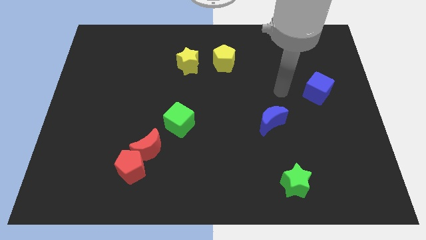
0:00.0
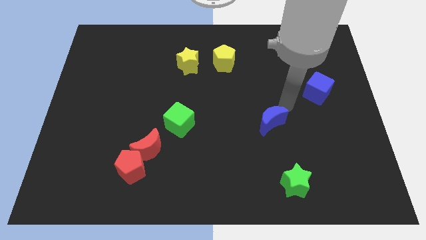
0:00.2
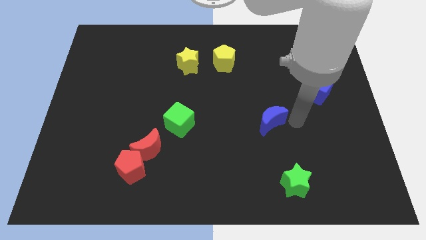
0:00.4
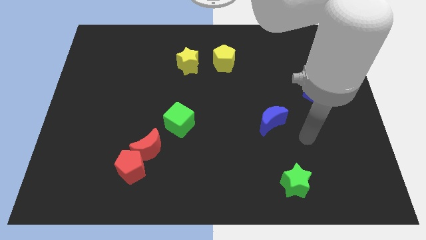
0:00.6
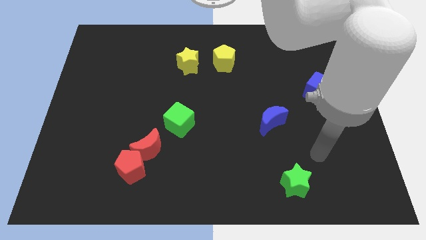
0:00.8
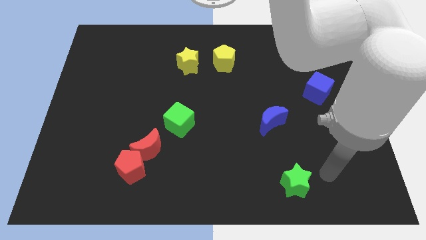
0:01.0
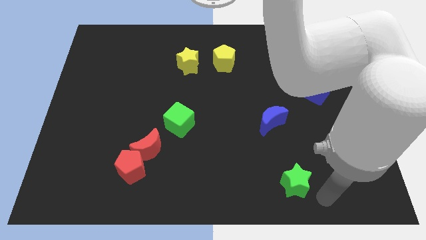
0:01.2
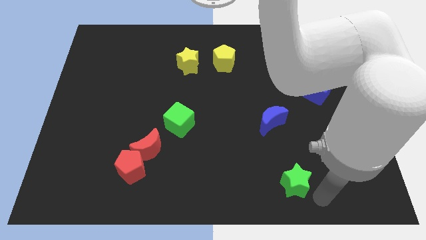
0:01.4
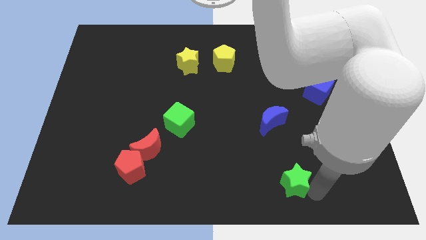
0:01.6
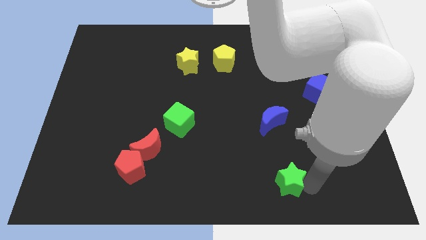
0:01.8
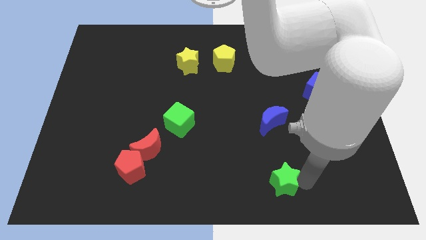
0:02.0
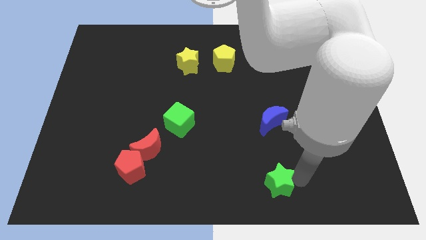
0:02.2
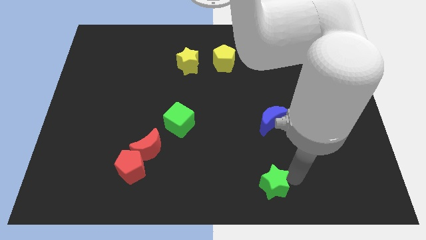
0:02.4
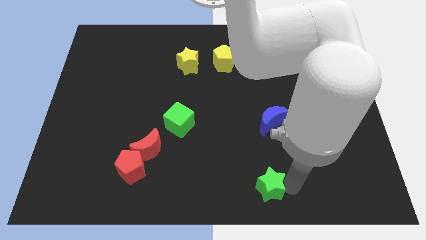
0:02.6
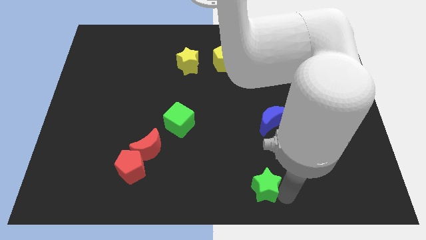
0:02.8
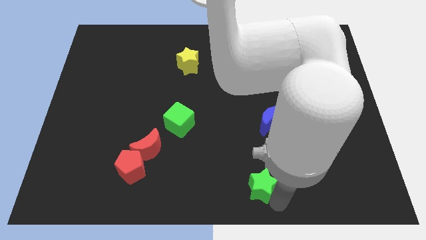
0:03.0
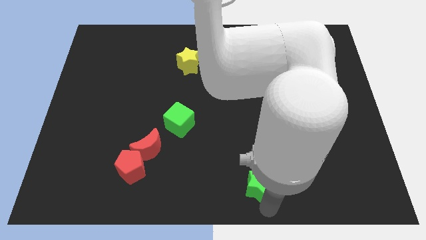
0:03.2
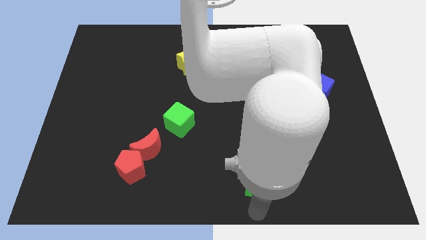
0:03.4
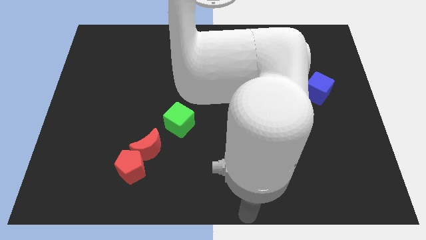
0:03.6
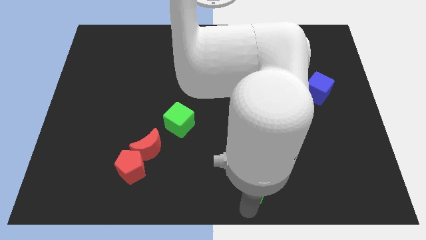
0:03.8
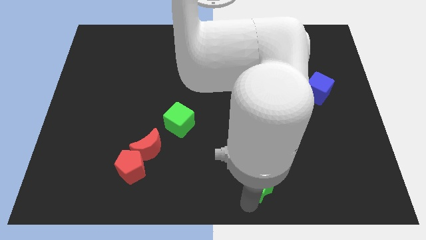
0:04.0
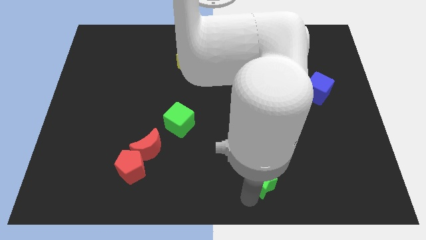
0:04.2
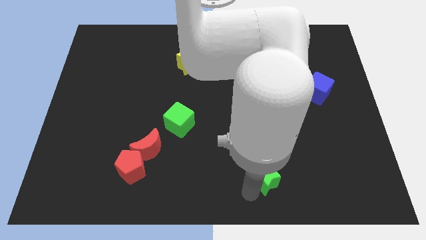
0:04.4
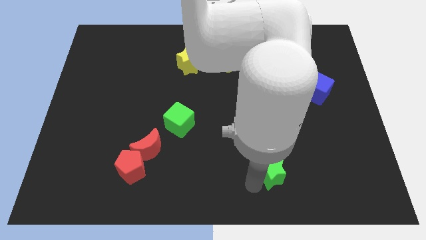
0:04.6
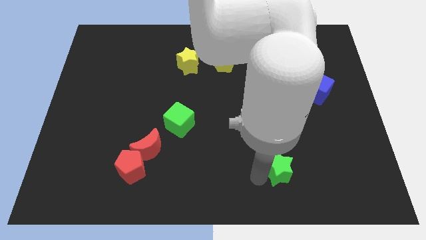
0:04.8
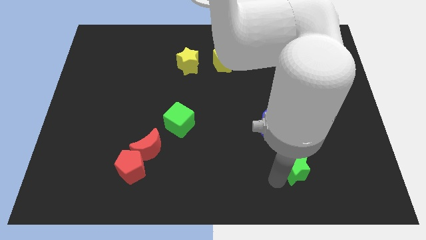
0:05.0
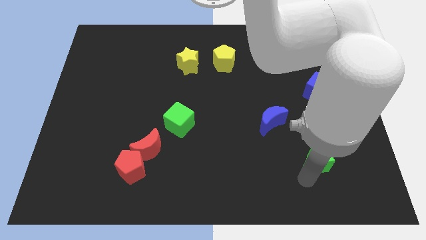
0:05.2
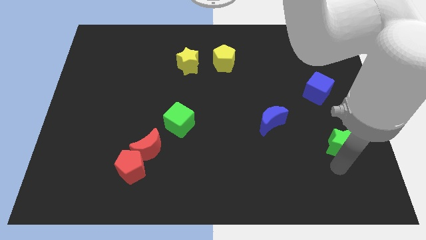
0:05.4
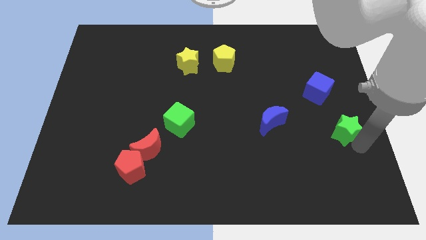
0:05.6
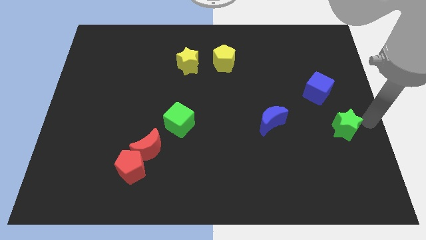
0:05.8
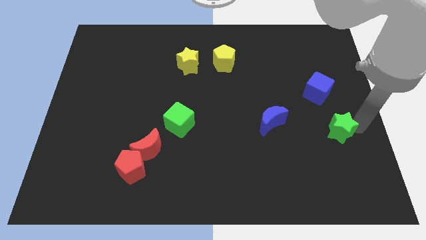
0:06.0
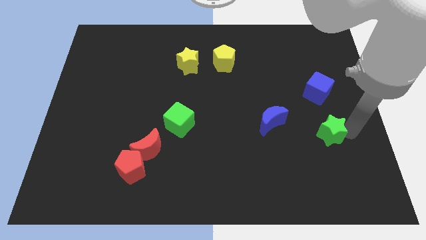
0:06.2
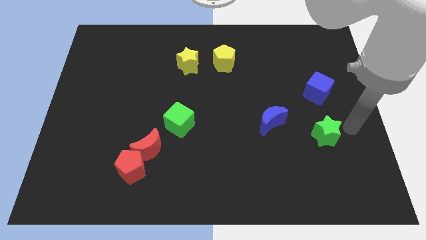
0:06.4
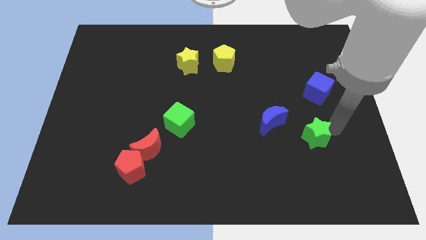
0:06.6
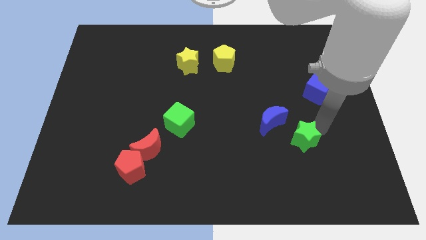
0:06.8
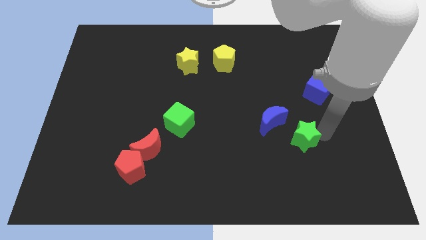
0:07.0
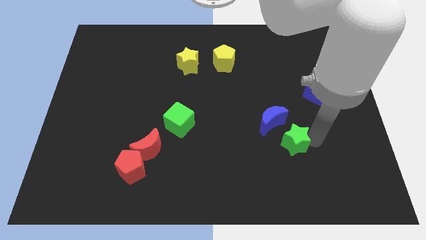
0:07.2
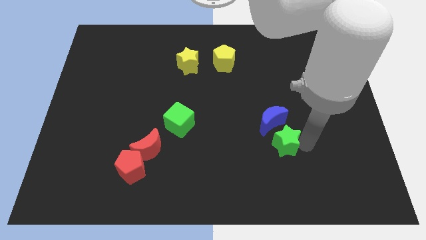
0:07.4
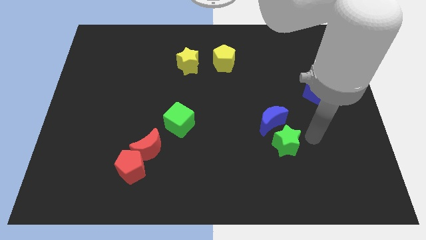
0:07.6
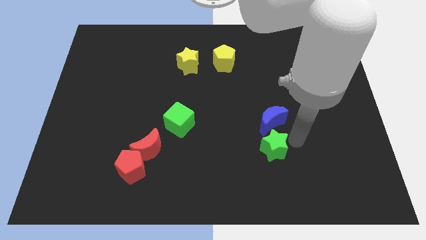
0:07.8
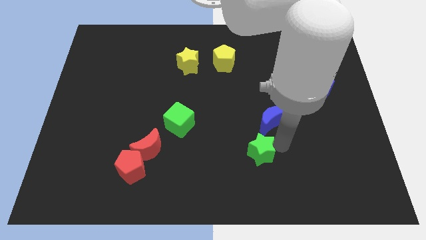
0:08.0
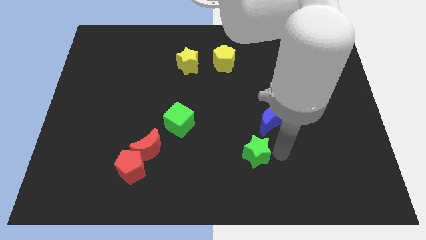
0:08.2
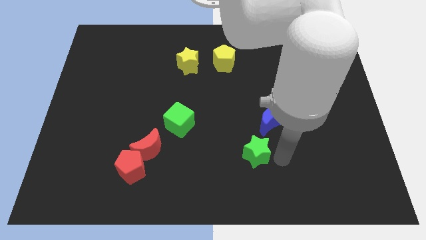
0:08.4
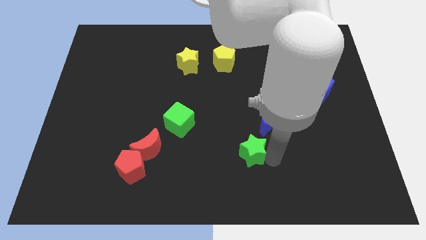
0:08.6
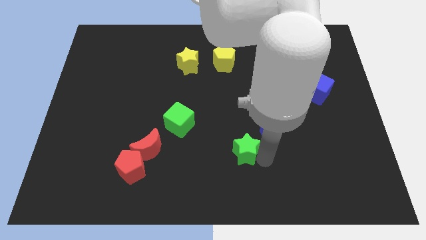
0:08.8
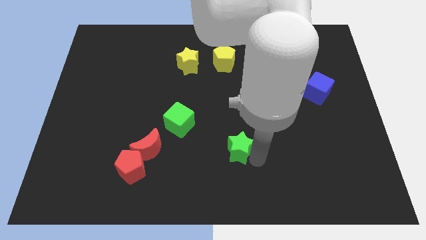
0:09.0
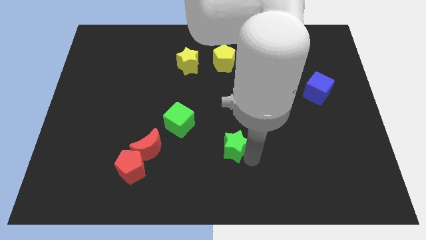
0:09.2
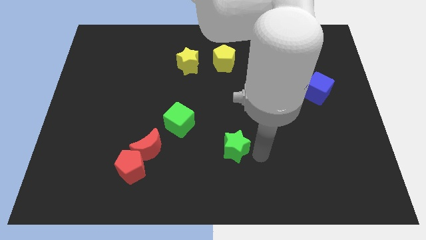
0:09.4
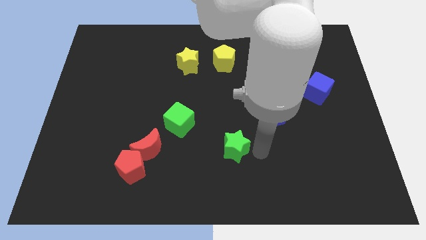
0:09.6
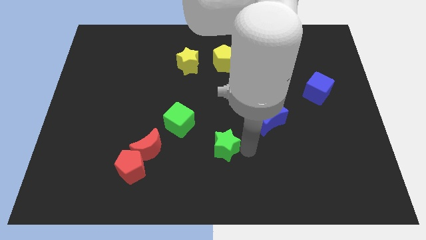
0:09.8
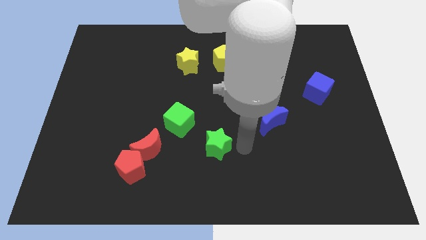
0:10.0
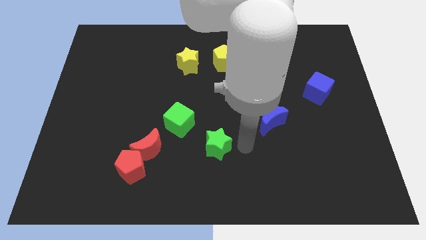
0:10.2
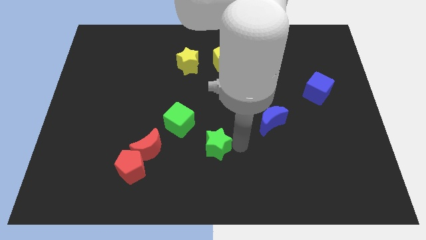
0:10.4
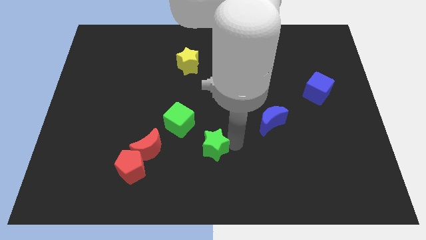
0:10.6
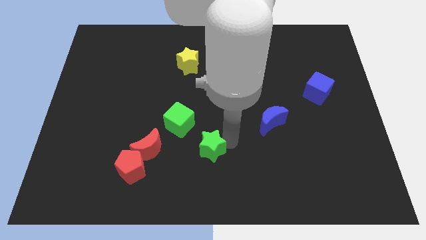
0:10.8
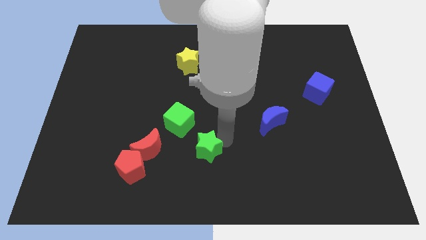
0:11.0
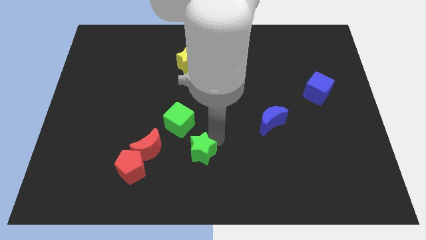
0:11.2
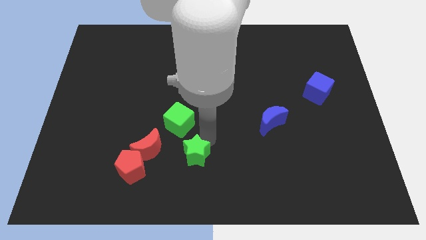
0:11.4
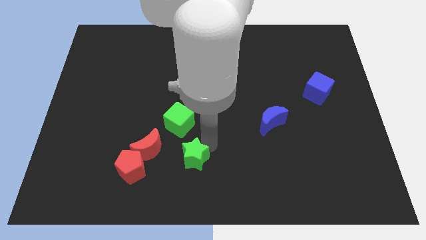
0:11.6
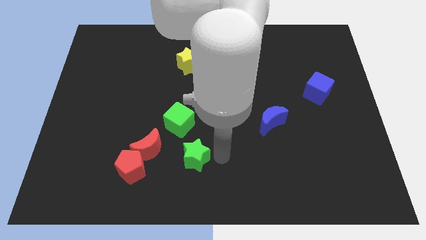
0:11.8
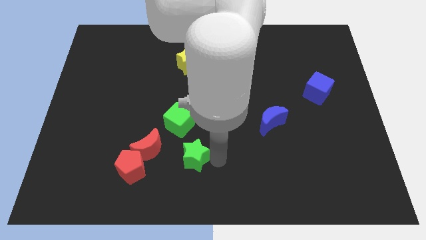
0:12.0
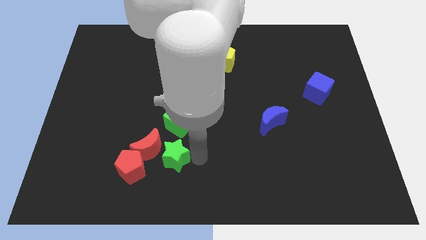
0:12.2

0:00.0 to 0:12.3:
push the green star to the red moon

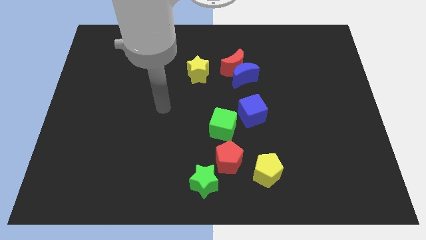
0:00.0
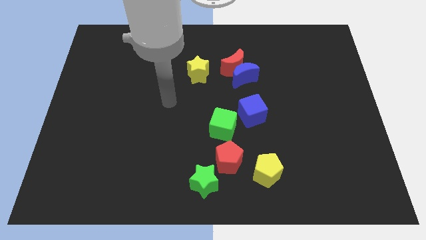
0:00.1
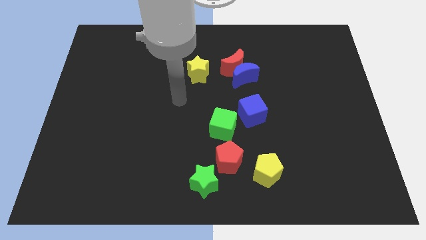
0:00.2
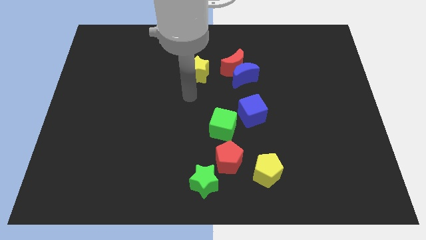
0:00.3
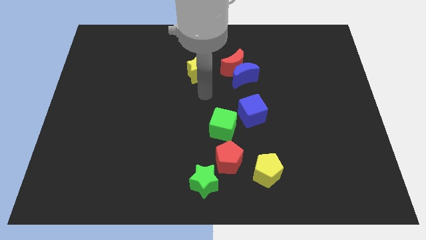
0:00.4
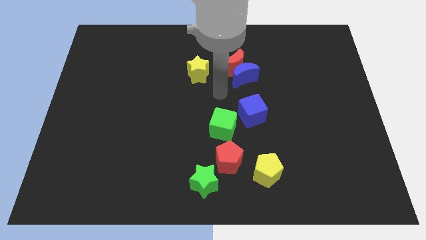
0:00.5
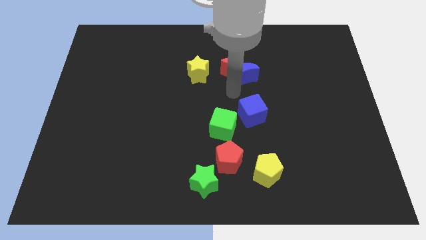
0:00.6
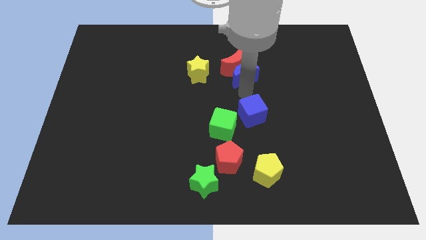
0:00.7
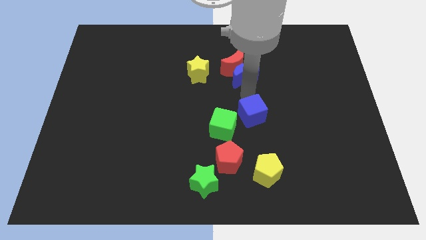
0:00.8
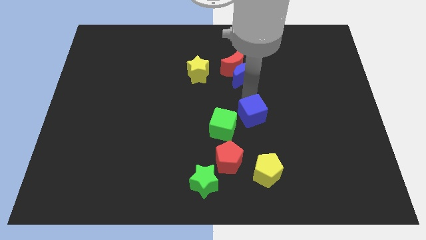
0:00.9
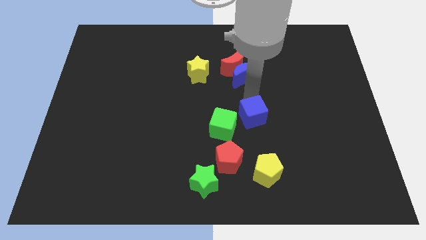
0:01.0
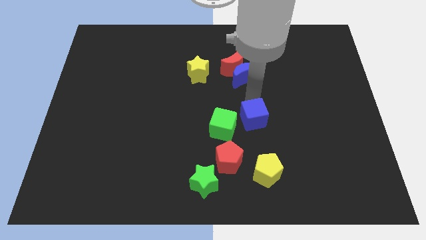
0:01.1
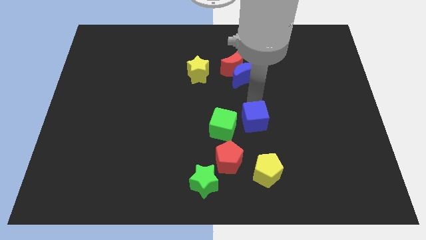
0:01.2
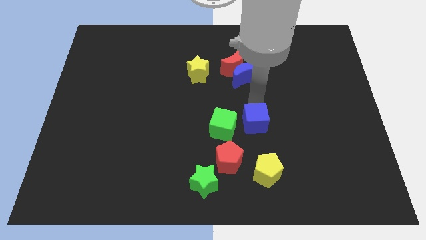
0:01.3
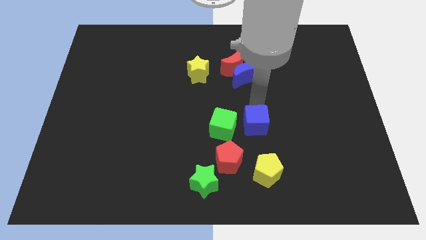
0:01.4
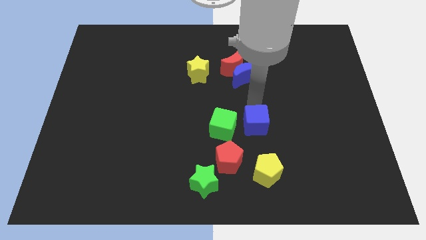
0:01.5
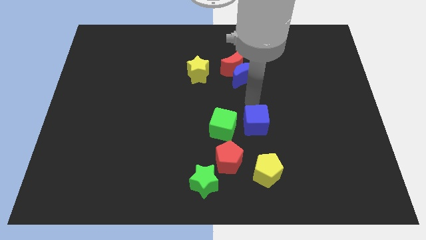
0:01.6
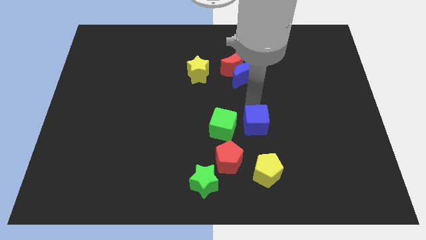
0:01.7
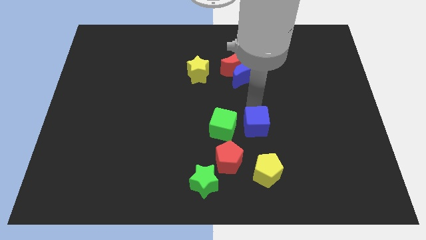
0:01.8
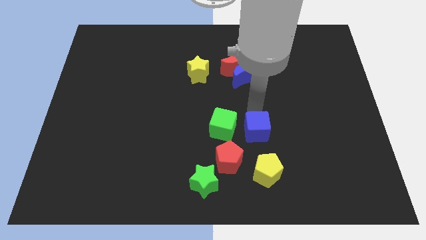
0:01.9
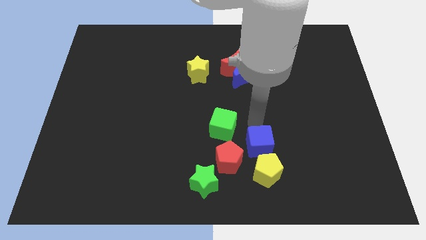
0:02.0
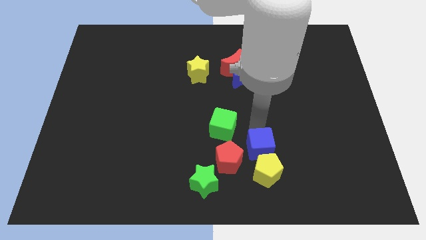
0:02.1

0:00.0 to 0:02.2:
push the blue cube next to the yellow pentagon
